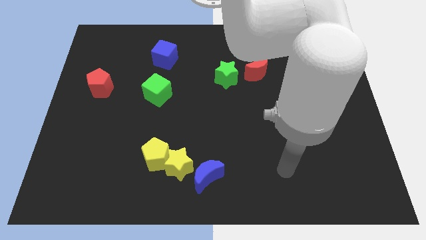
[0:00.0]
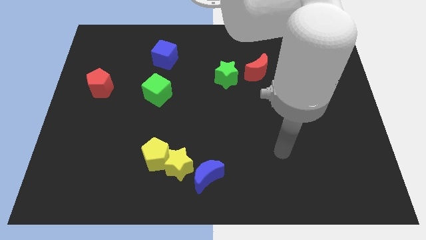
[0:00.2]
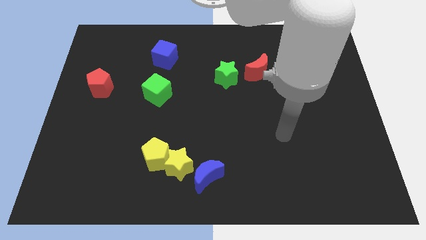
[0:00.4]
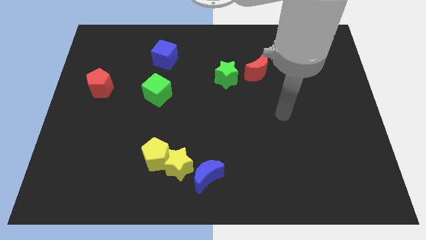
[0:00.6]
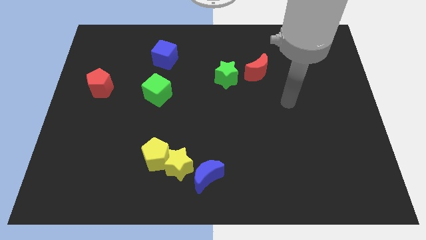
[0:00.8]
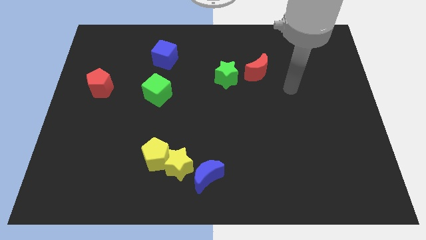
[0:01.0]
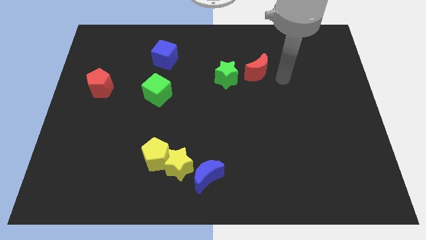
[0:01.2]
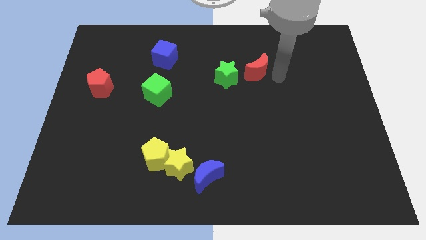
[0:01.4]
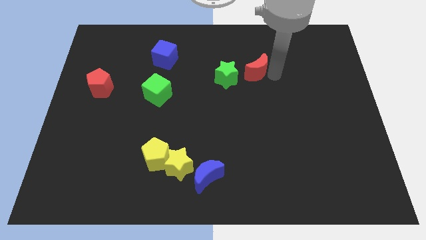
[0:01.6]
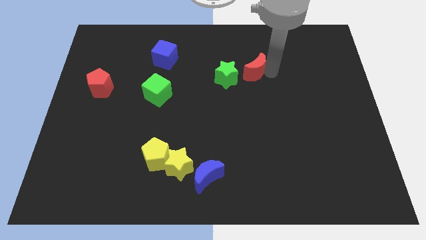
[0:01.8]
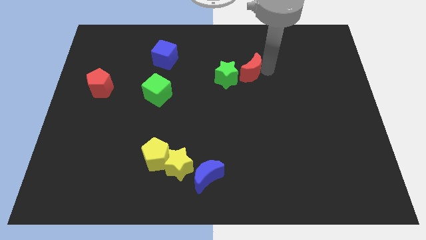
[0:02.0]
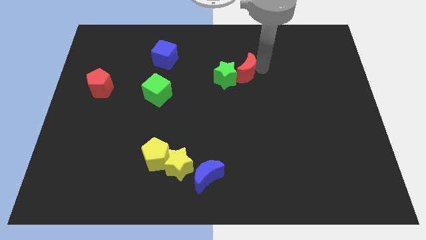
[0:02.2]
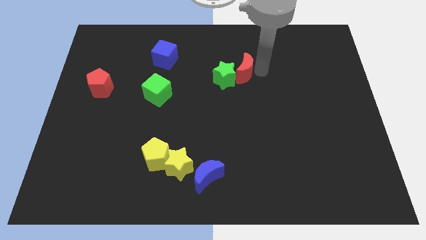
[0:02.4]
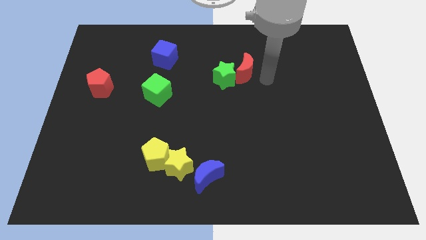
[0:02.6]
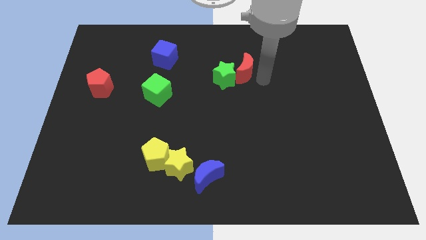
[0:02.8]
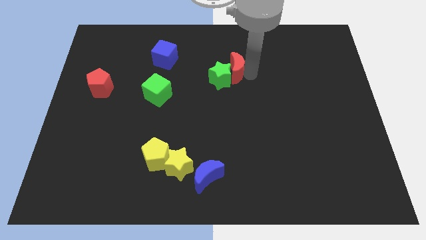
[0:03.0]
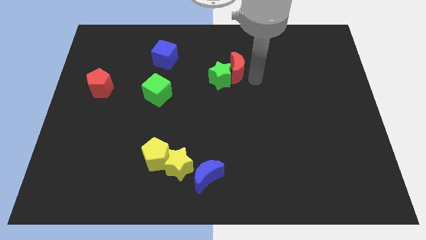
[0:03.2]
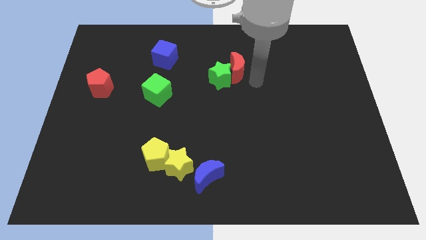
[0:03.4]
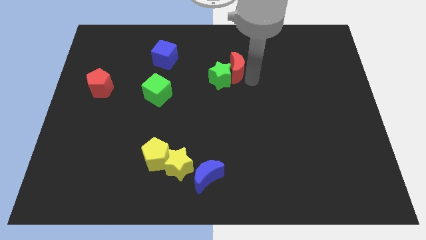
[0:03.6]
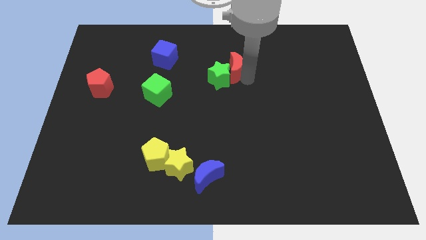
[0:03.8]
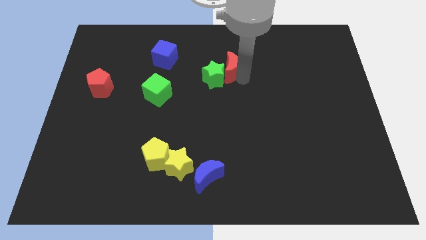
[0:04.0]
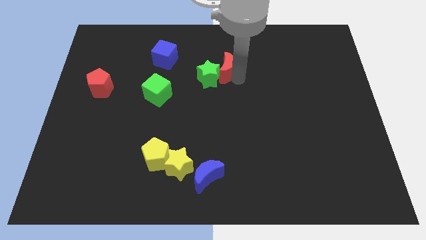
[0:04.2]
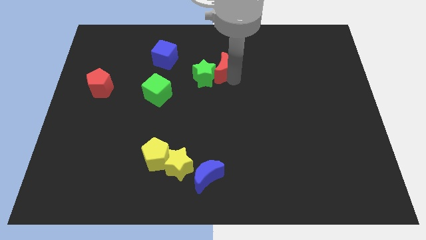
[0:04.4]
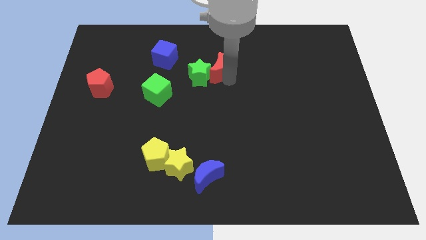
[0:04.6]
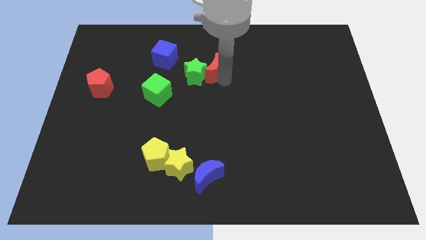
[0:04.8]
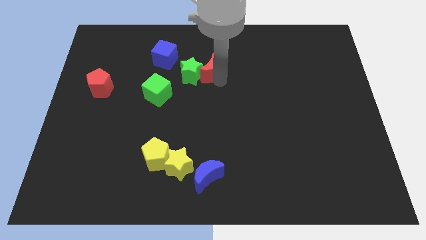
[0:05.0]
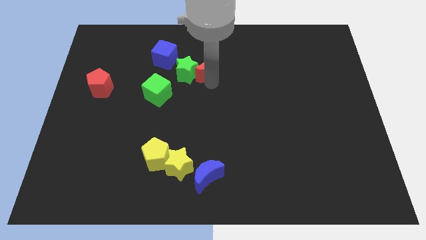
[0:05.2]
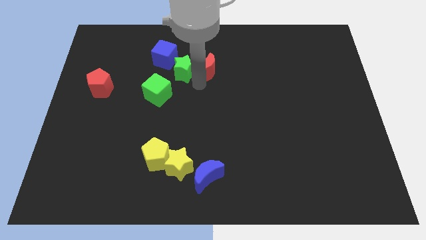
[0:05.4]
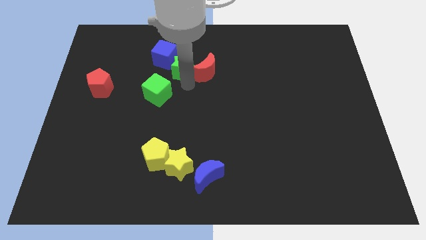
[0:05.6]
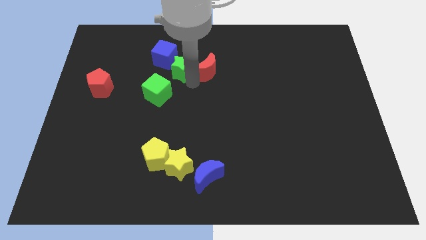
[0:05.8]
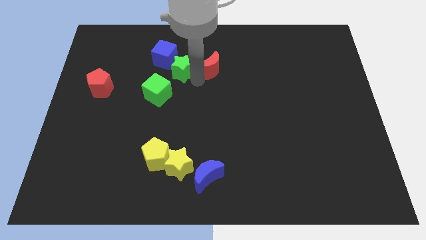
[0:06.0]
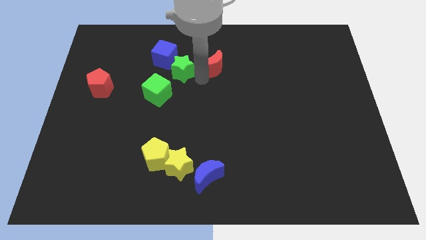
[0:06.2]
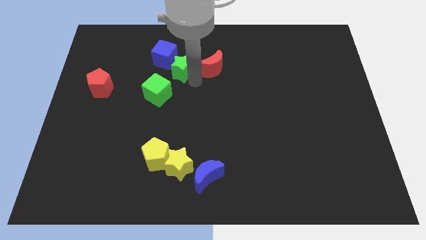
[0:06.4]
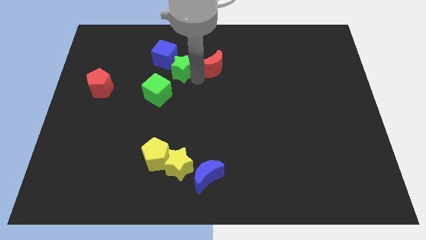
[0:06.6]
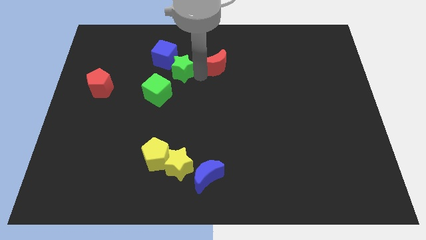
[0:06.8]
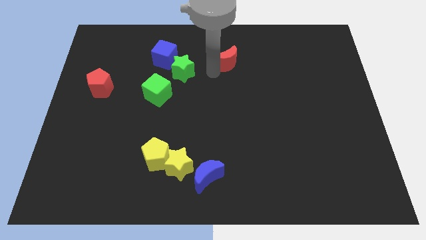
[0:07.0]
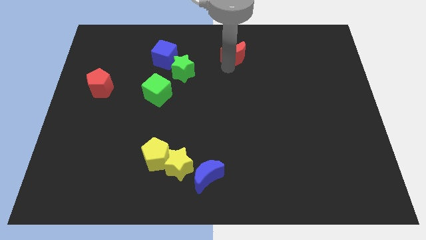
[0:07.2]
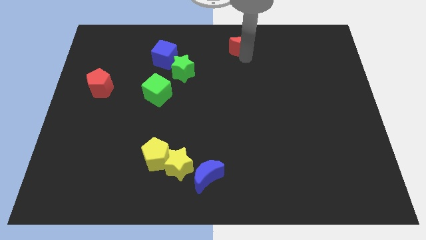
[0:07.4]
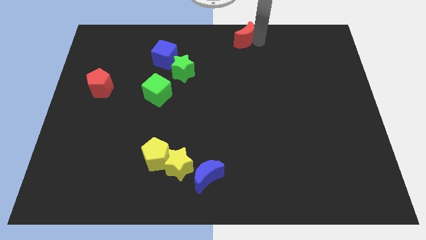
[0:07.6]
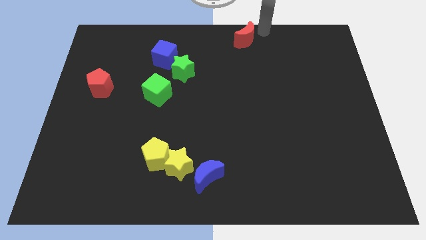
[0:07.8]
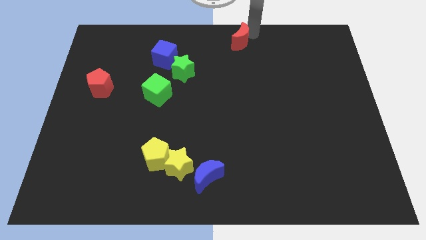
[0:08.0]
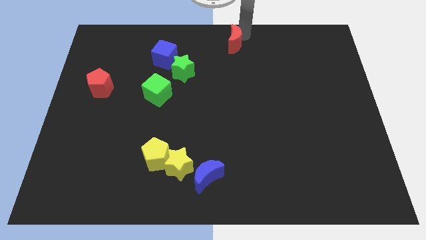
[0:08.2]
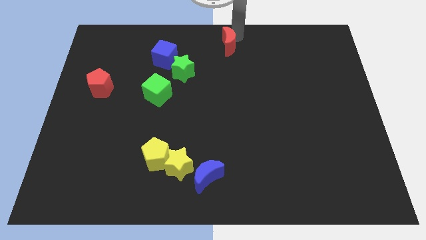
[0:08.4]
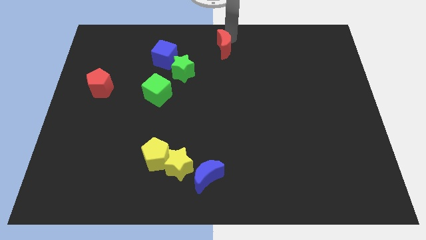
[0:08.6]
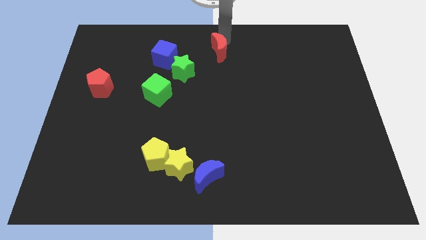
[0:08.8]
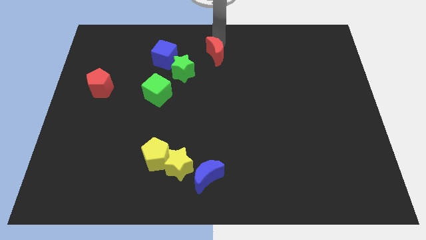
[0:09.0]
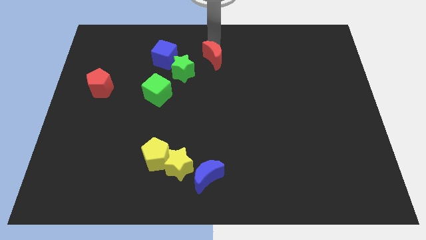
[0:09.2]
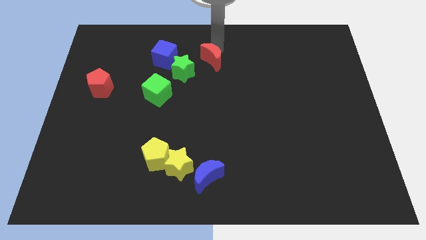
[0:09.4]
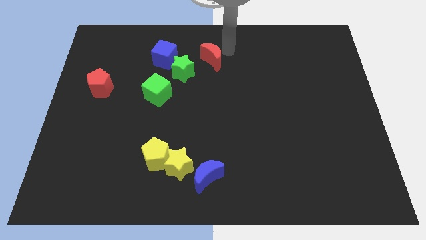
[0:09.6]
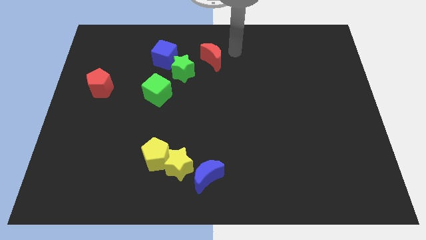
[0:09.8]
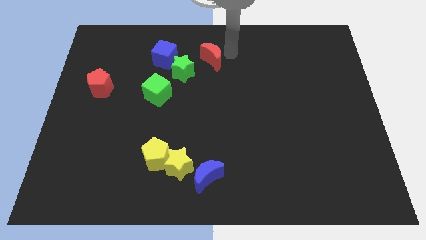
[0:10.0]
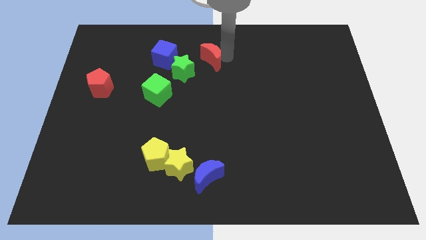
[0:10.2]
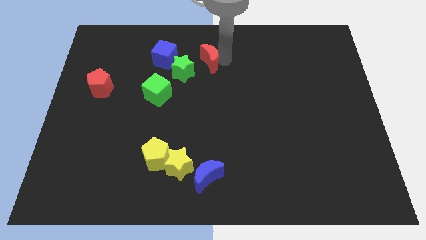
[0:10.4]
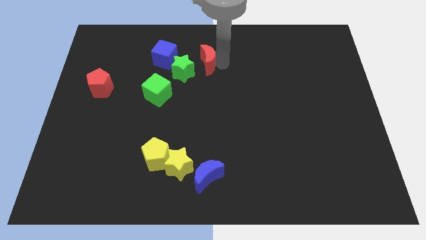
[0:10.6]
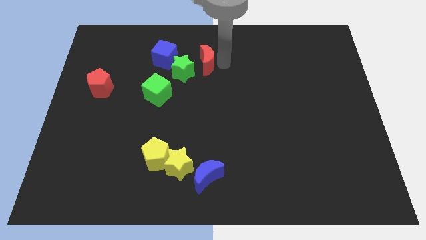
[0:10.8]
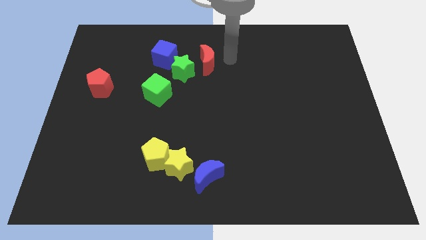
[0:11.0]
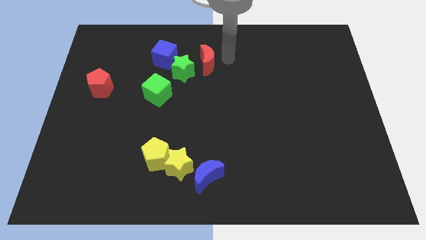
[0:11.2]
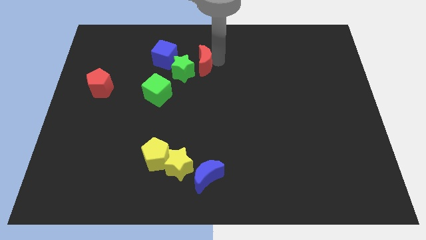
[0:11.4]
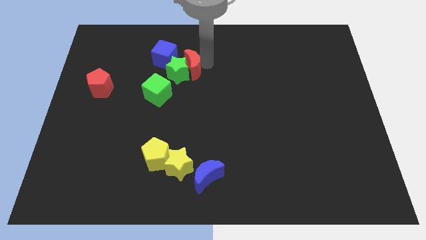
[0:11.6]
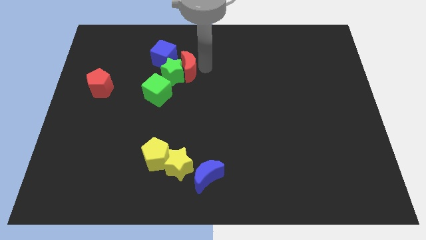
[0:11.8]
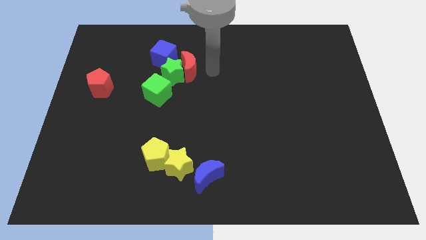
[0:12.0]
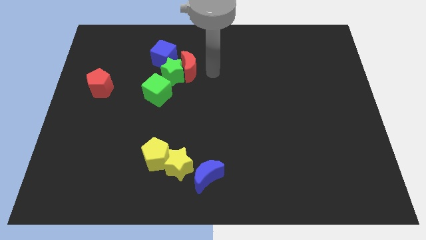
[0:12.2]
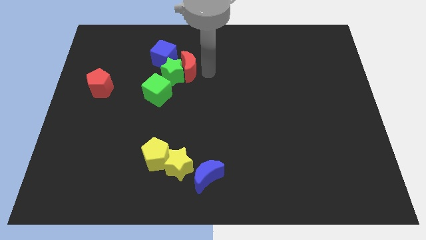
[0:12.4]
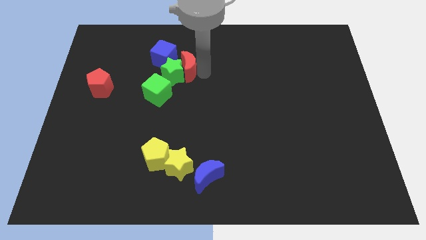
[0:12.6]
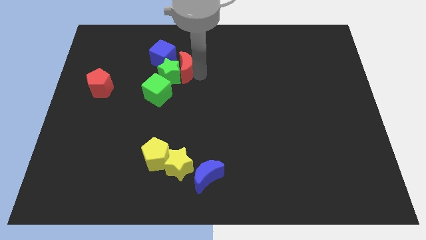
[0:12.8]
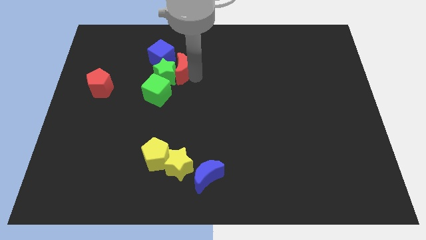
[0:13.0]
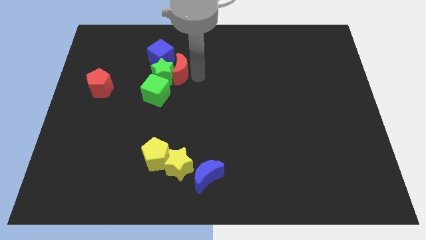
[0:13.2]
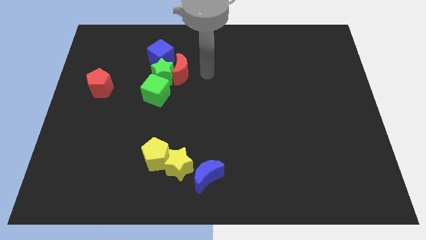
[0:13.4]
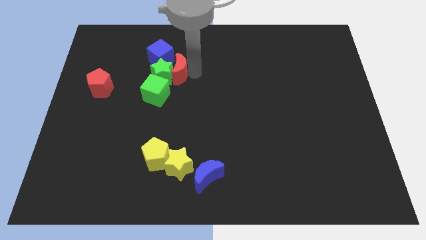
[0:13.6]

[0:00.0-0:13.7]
move the red moon left

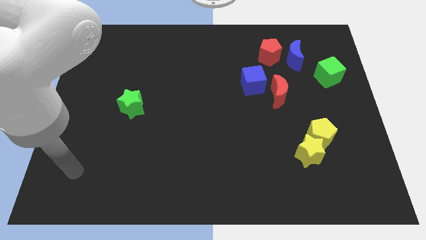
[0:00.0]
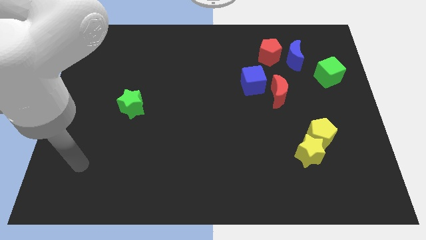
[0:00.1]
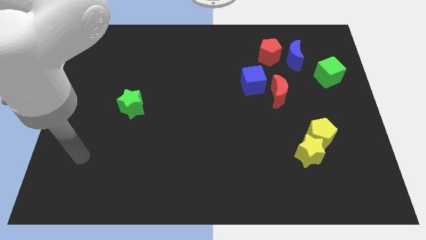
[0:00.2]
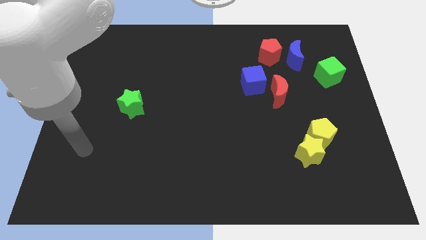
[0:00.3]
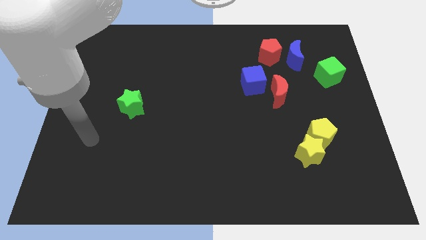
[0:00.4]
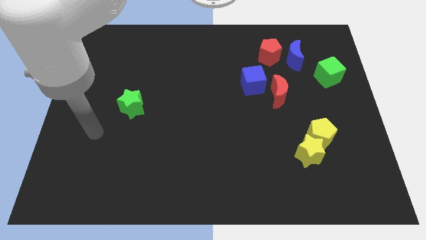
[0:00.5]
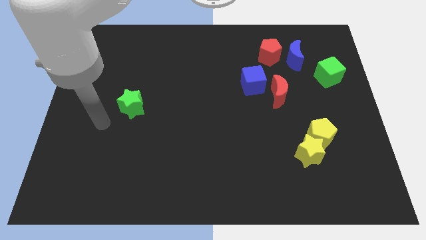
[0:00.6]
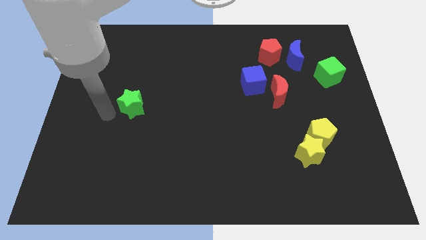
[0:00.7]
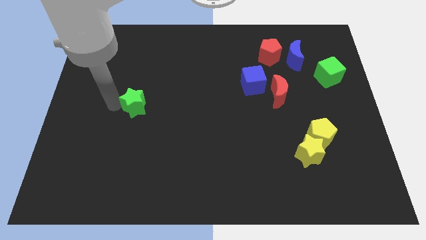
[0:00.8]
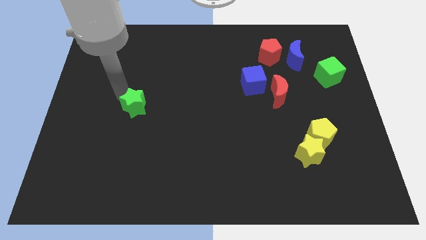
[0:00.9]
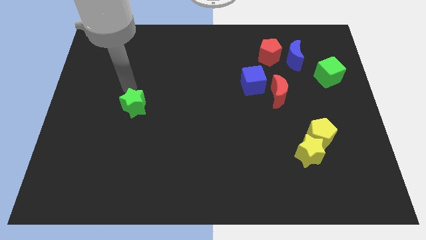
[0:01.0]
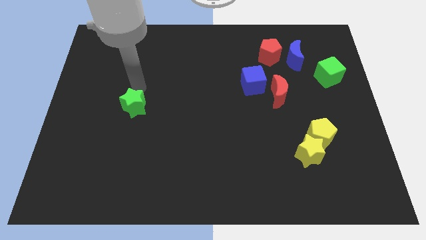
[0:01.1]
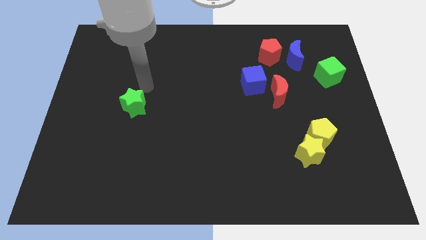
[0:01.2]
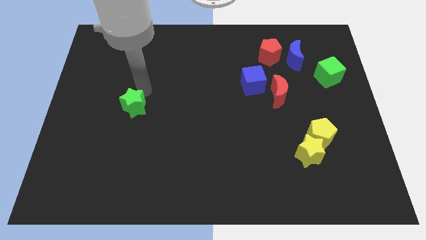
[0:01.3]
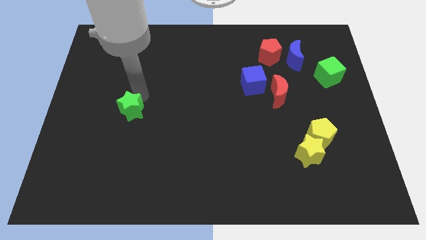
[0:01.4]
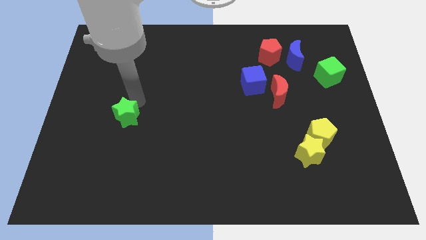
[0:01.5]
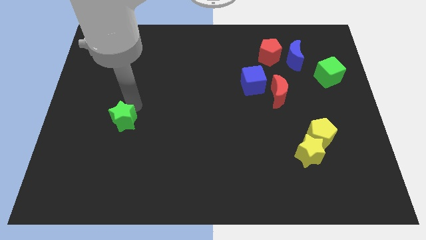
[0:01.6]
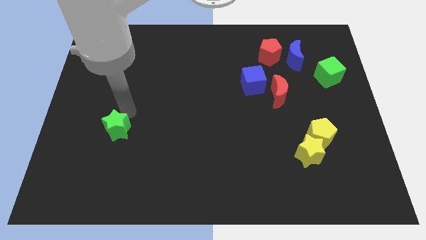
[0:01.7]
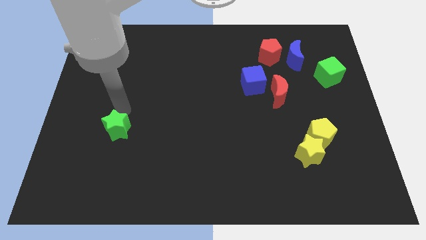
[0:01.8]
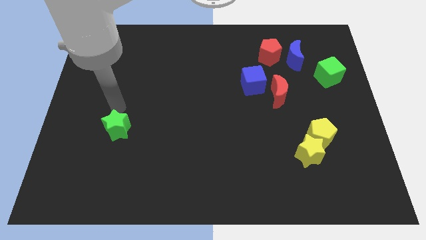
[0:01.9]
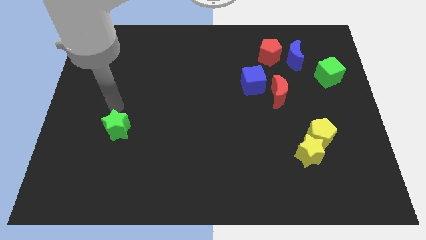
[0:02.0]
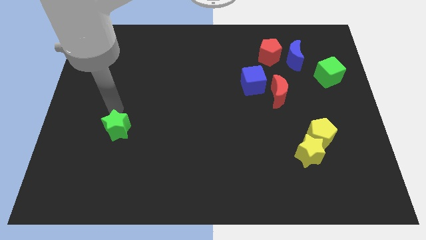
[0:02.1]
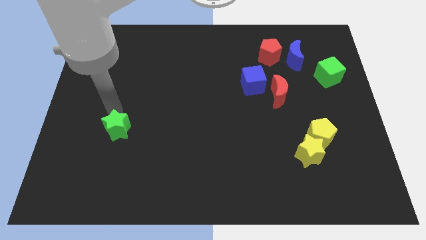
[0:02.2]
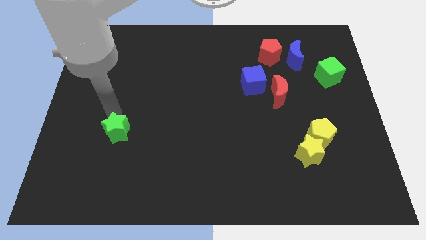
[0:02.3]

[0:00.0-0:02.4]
slightly push the green star down
